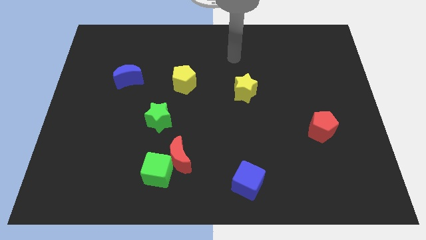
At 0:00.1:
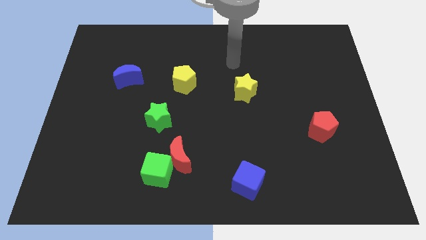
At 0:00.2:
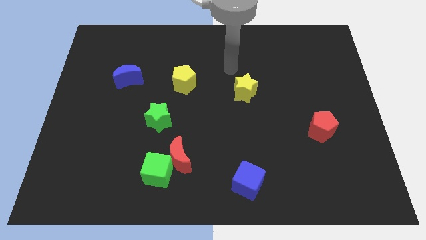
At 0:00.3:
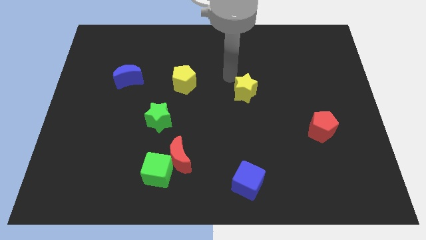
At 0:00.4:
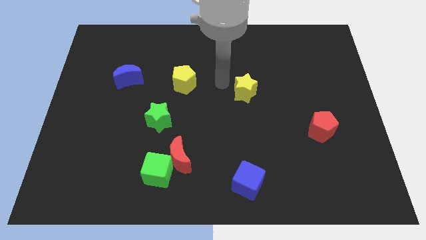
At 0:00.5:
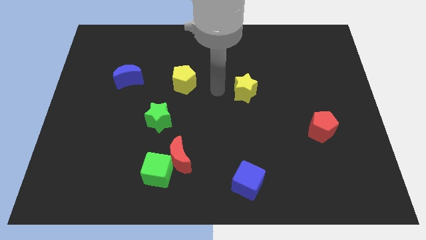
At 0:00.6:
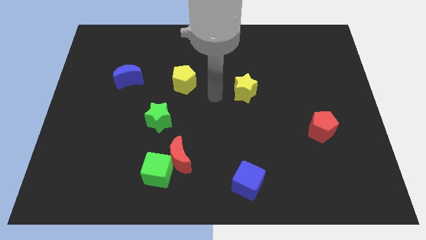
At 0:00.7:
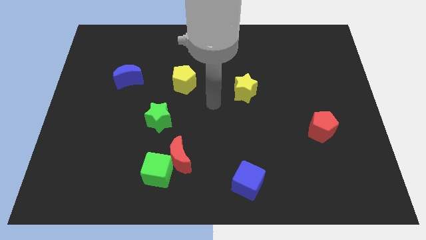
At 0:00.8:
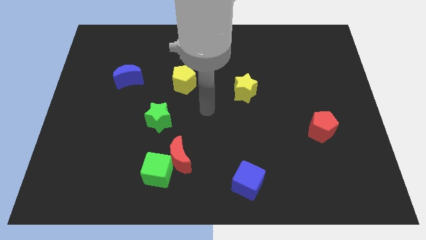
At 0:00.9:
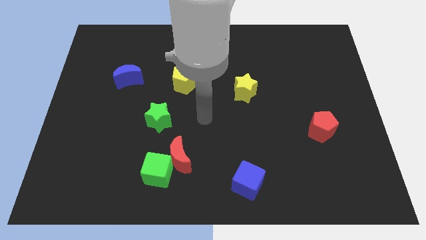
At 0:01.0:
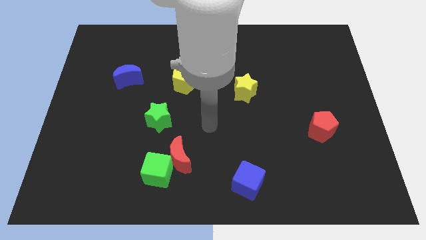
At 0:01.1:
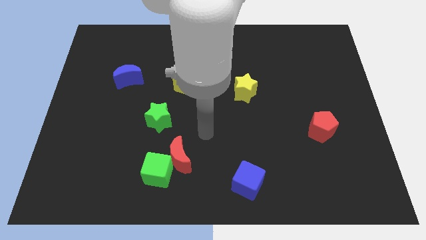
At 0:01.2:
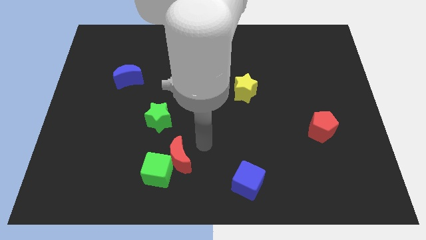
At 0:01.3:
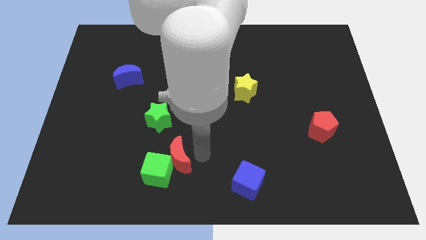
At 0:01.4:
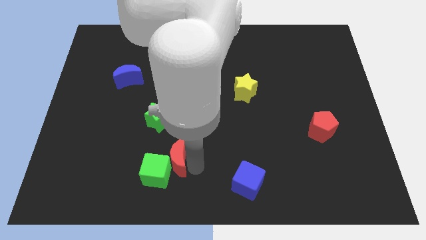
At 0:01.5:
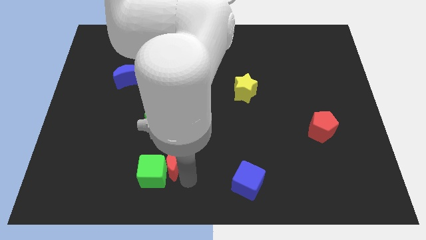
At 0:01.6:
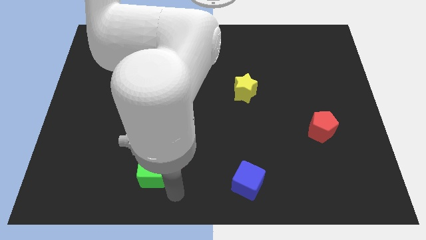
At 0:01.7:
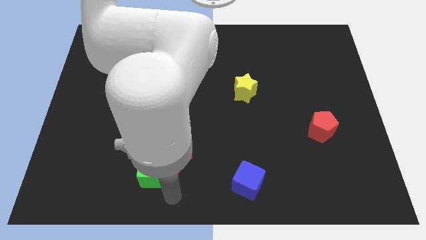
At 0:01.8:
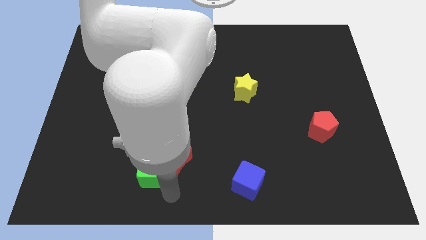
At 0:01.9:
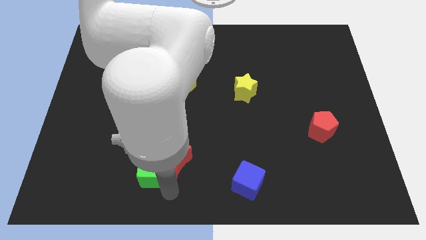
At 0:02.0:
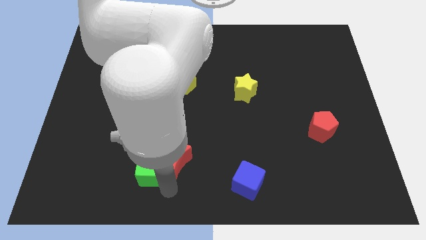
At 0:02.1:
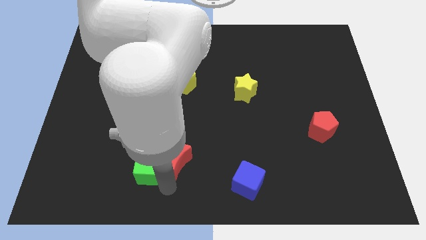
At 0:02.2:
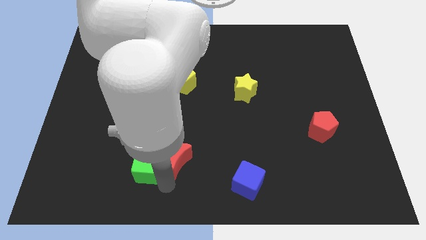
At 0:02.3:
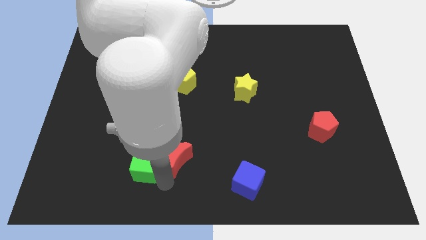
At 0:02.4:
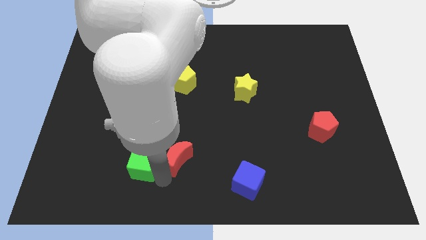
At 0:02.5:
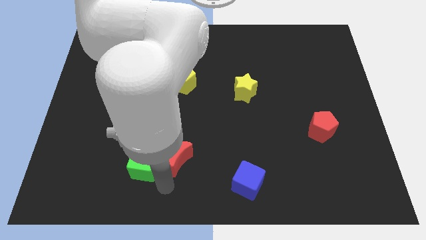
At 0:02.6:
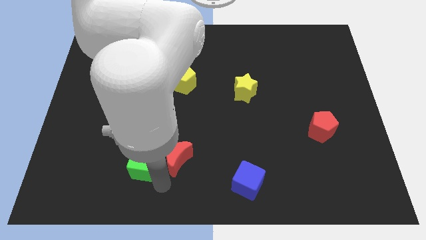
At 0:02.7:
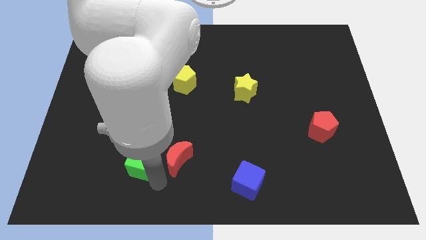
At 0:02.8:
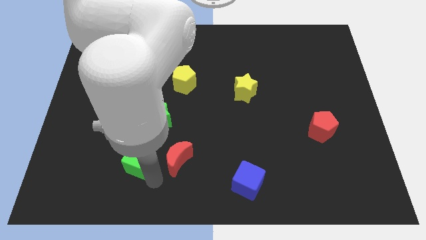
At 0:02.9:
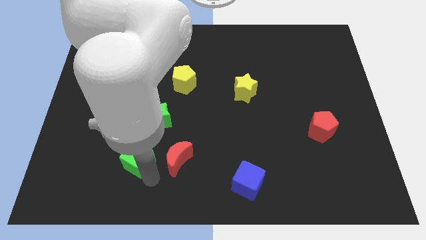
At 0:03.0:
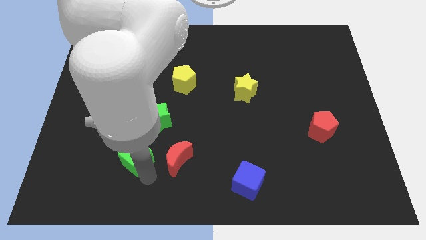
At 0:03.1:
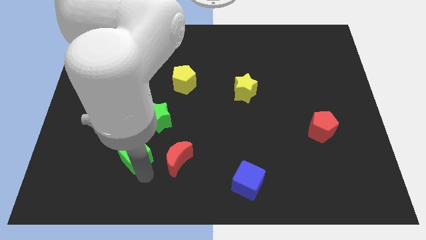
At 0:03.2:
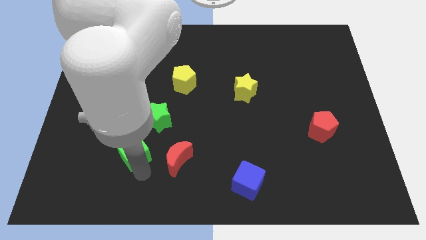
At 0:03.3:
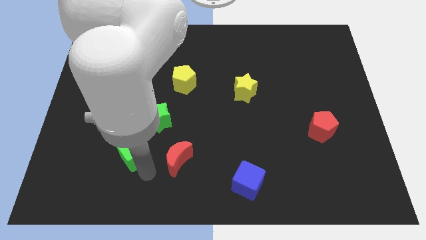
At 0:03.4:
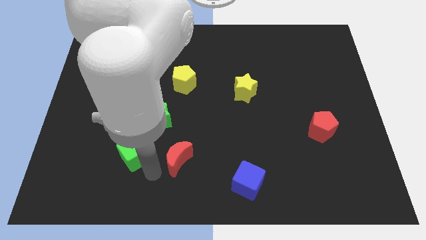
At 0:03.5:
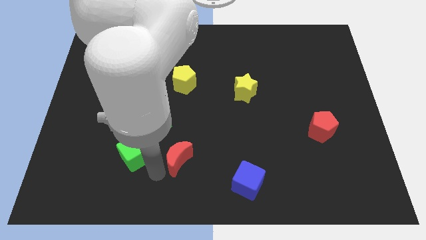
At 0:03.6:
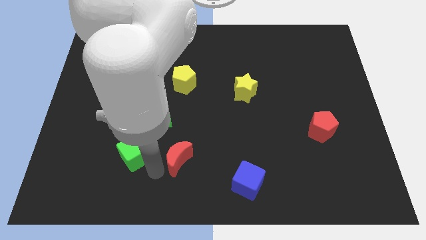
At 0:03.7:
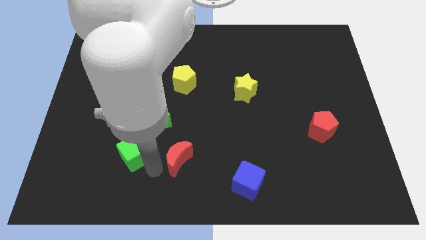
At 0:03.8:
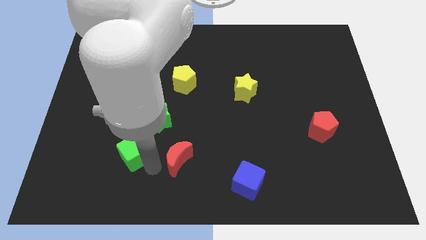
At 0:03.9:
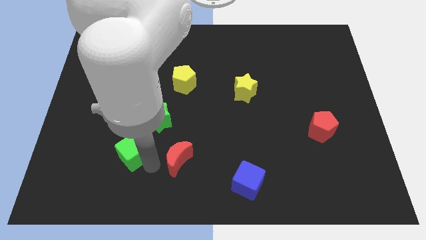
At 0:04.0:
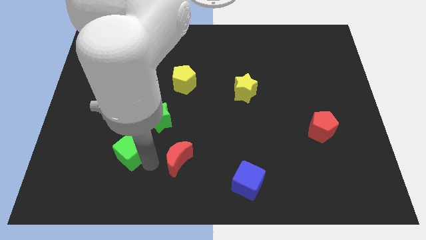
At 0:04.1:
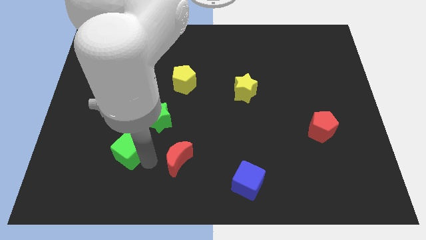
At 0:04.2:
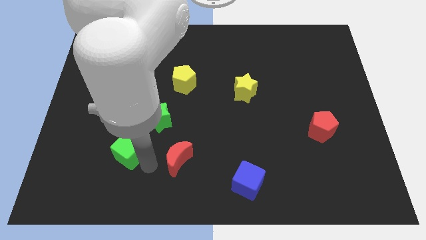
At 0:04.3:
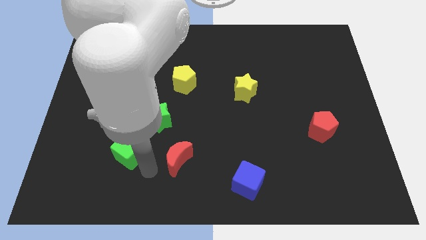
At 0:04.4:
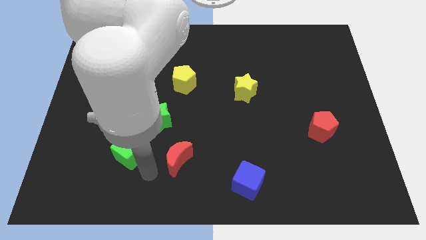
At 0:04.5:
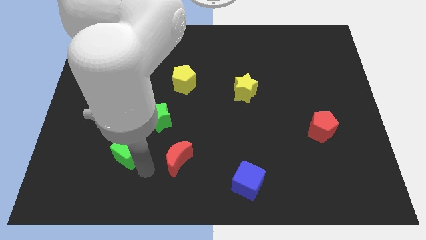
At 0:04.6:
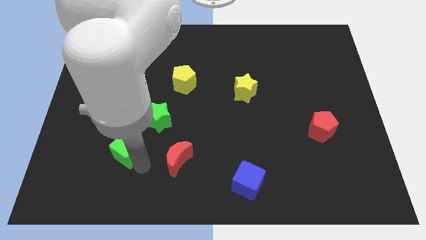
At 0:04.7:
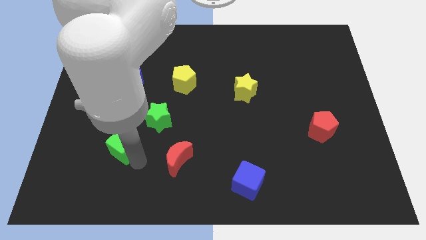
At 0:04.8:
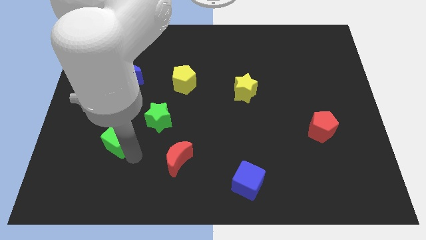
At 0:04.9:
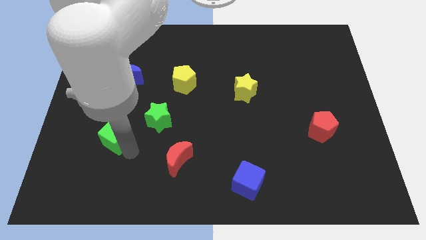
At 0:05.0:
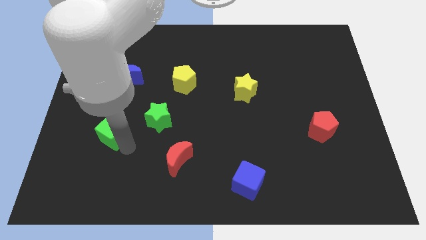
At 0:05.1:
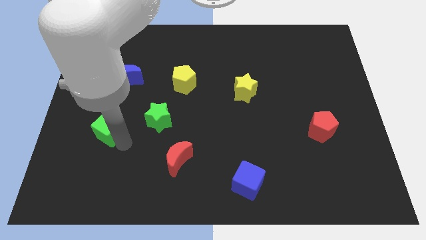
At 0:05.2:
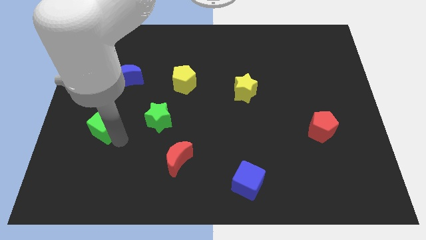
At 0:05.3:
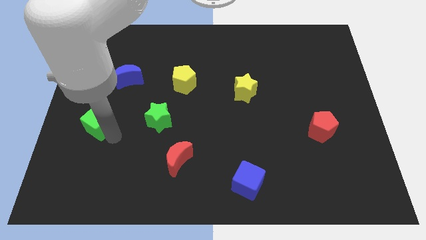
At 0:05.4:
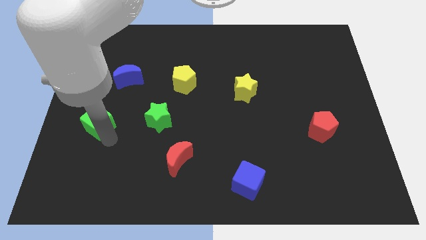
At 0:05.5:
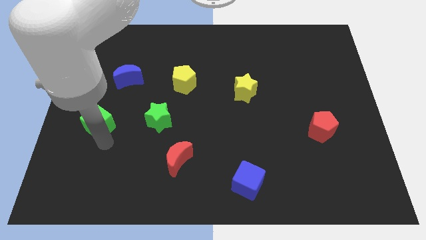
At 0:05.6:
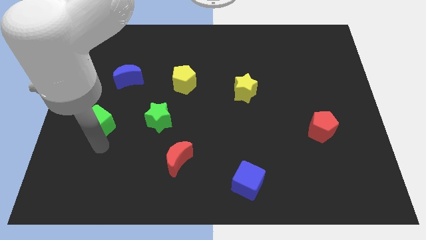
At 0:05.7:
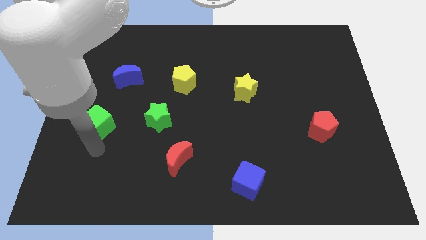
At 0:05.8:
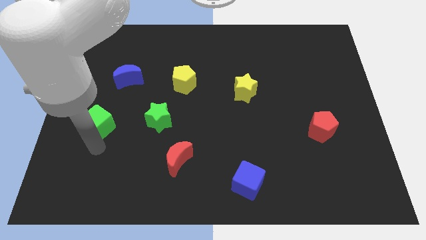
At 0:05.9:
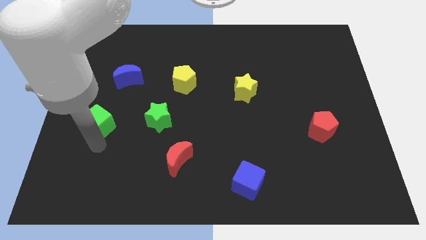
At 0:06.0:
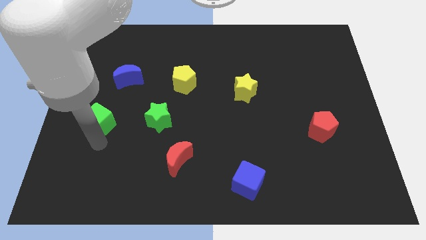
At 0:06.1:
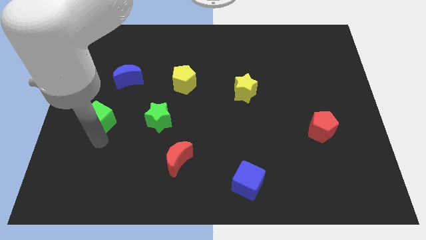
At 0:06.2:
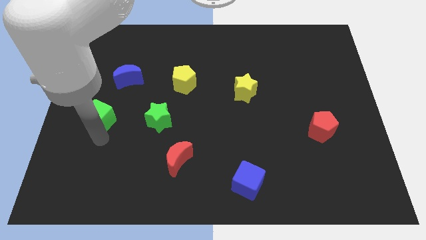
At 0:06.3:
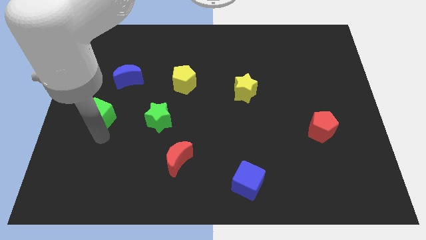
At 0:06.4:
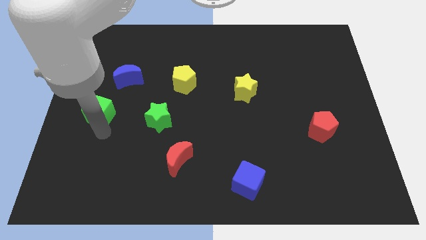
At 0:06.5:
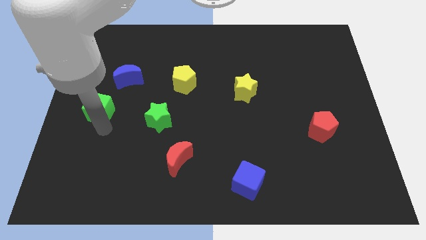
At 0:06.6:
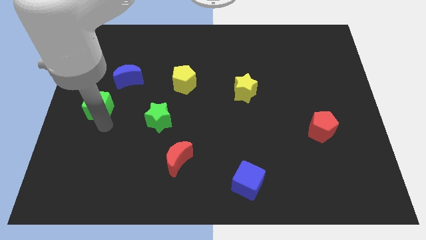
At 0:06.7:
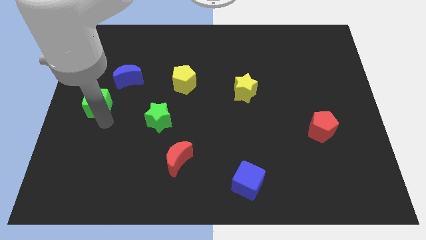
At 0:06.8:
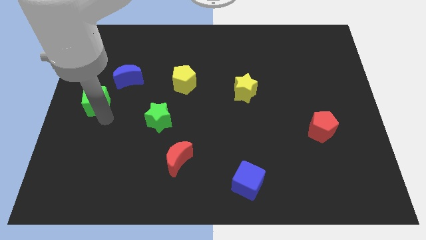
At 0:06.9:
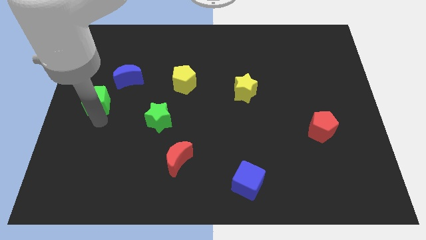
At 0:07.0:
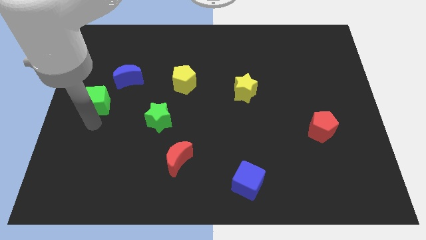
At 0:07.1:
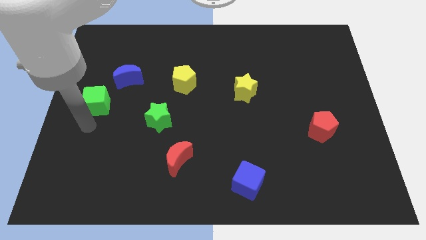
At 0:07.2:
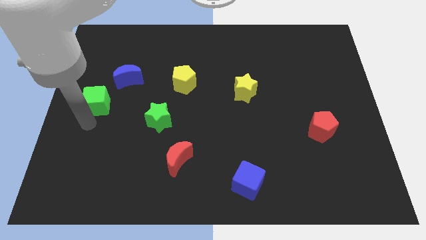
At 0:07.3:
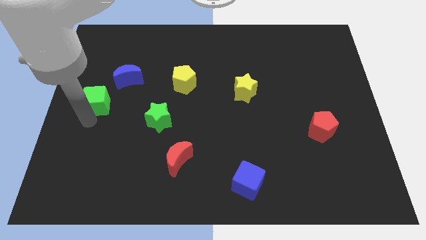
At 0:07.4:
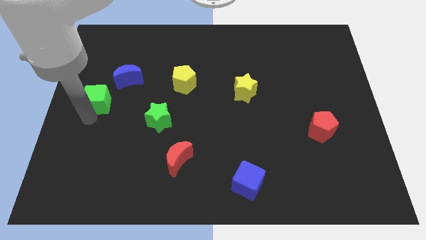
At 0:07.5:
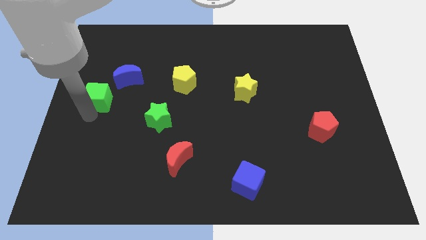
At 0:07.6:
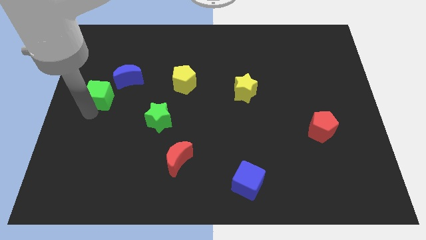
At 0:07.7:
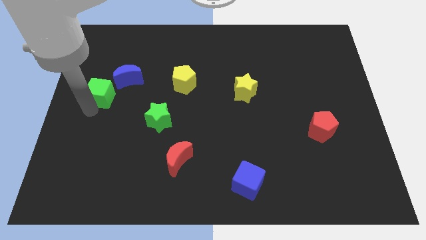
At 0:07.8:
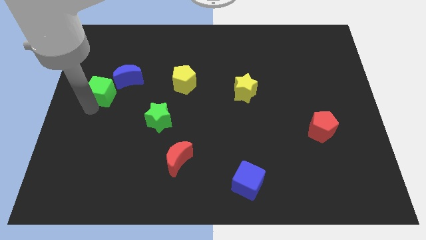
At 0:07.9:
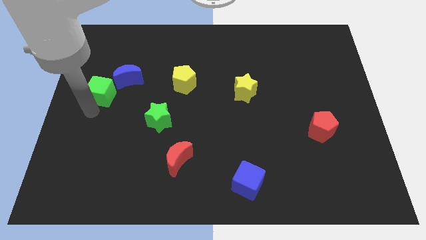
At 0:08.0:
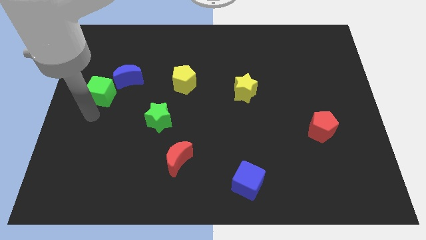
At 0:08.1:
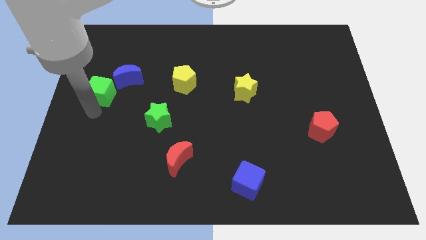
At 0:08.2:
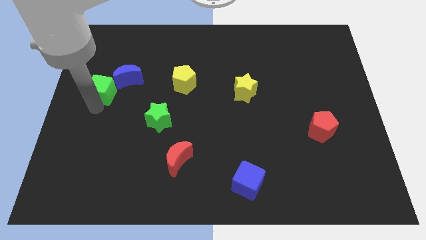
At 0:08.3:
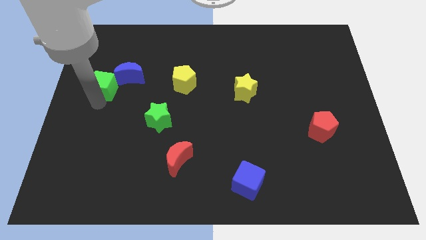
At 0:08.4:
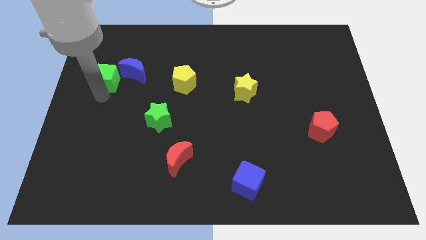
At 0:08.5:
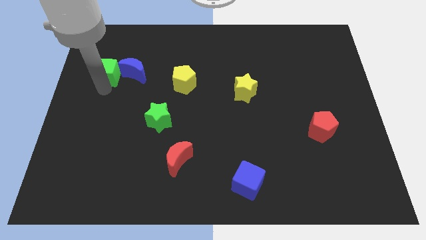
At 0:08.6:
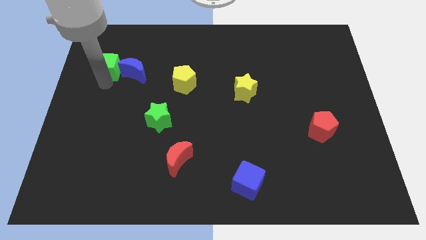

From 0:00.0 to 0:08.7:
put the green cube diagonally up and to the left of the blue moon
